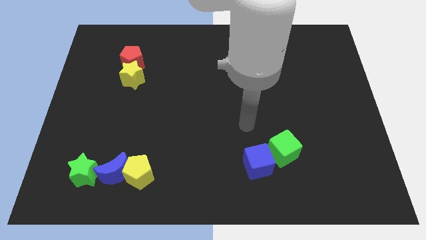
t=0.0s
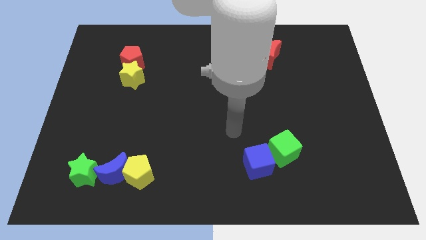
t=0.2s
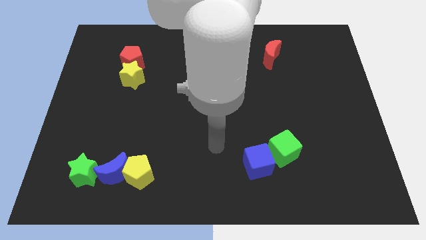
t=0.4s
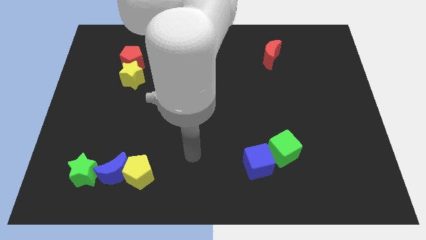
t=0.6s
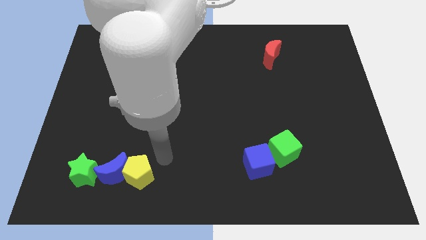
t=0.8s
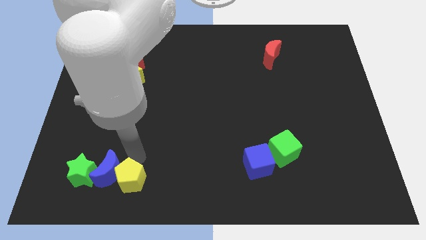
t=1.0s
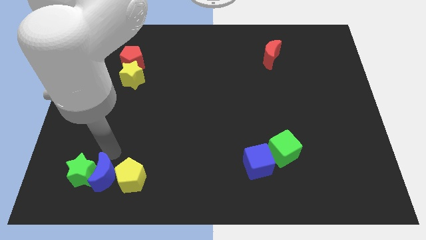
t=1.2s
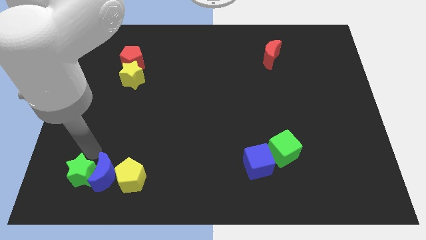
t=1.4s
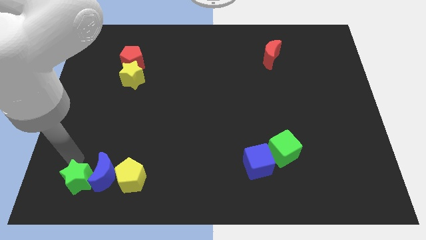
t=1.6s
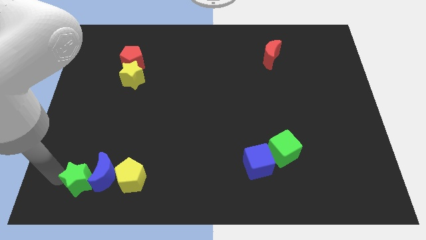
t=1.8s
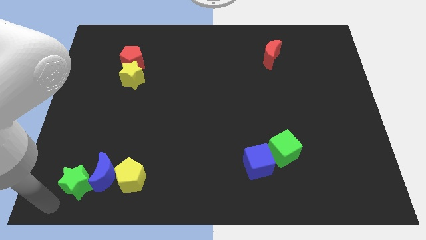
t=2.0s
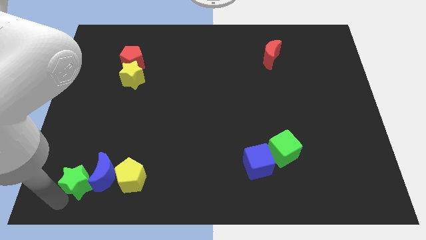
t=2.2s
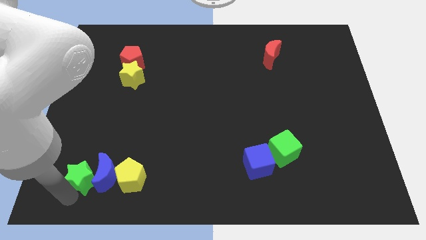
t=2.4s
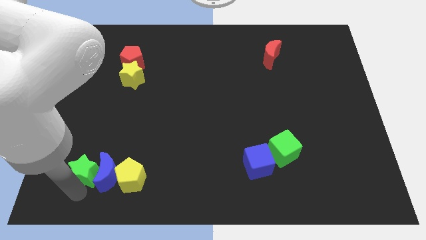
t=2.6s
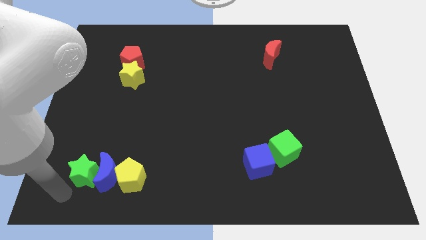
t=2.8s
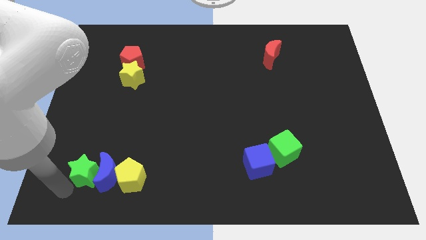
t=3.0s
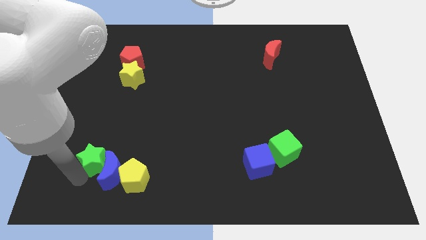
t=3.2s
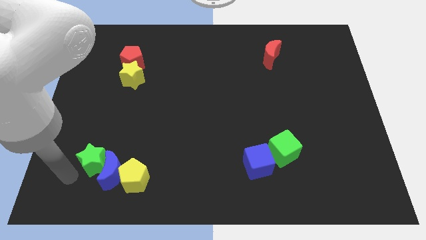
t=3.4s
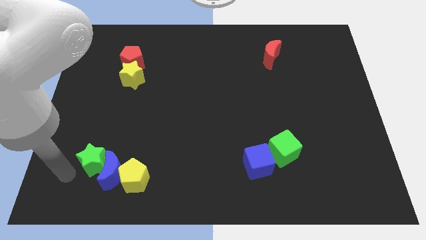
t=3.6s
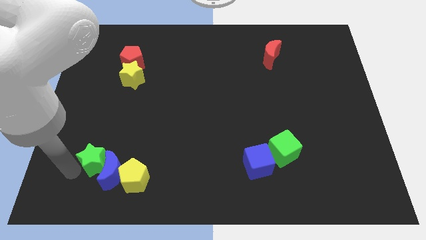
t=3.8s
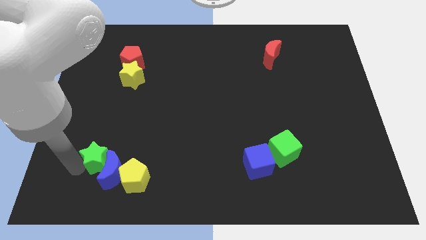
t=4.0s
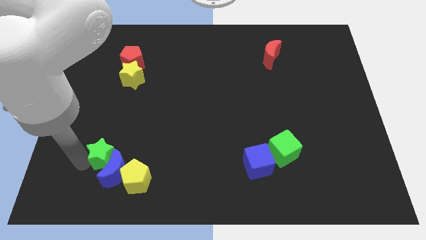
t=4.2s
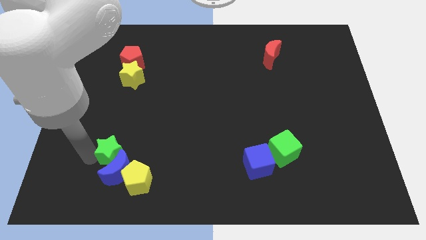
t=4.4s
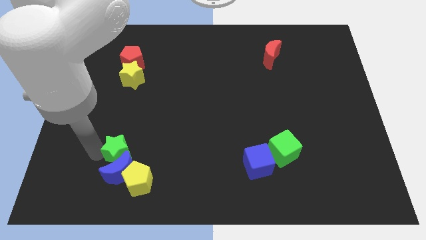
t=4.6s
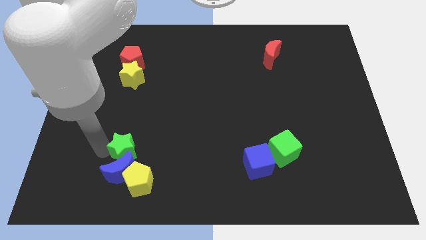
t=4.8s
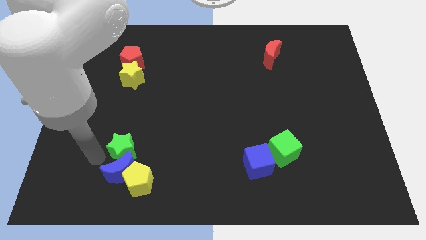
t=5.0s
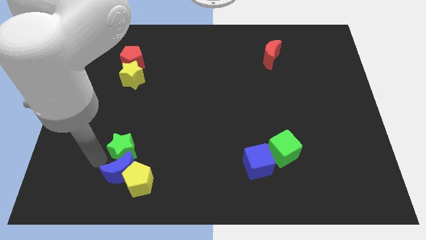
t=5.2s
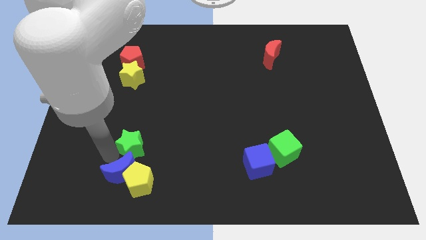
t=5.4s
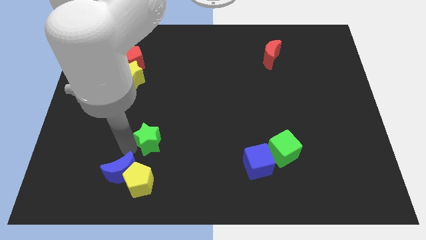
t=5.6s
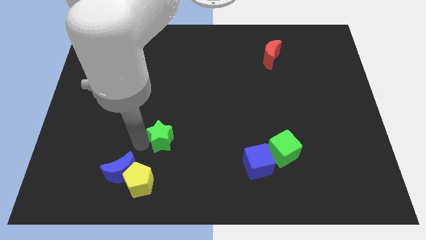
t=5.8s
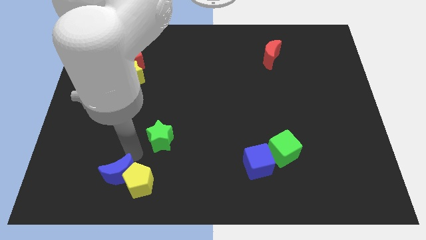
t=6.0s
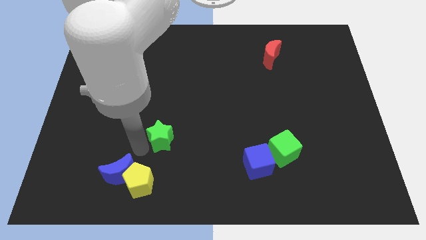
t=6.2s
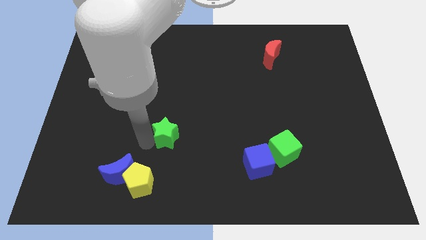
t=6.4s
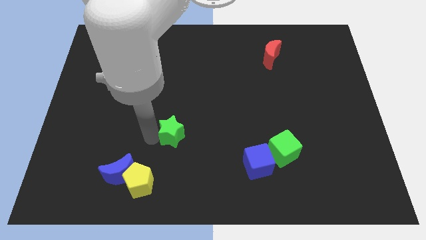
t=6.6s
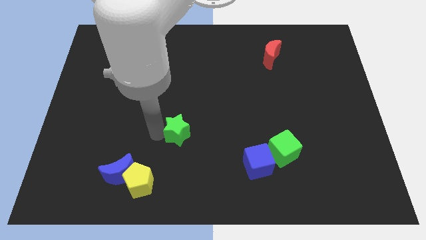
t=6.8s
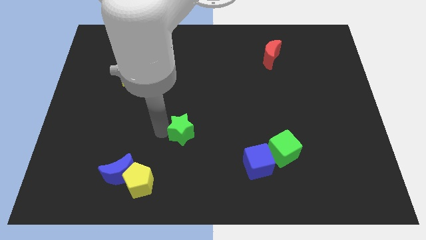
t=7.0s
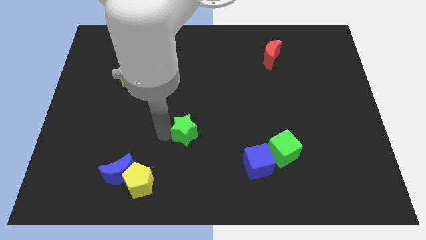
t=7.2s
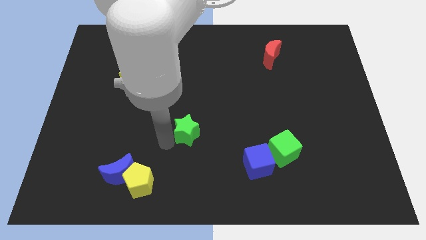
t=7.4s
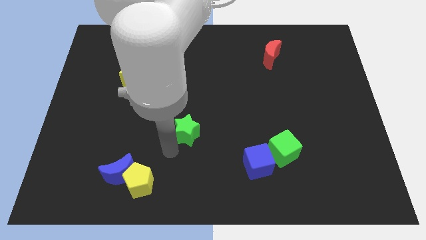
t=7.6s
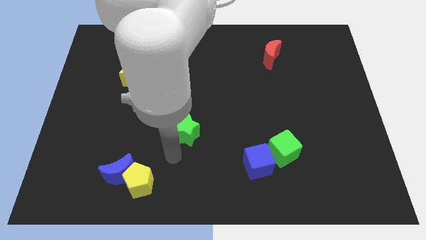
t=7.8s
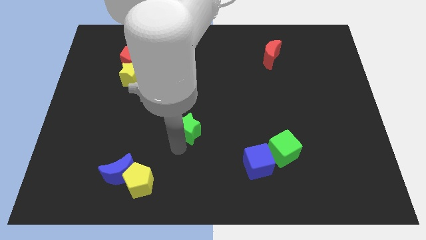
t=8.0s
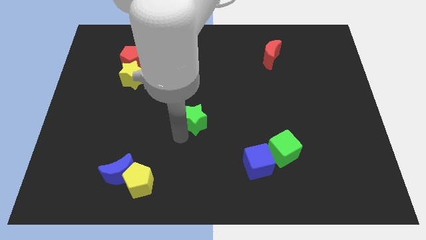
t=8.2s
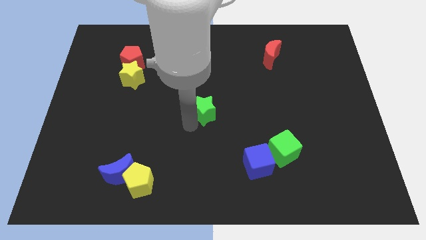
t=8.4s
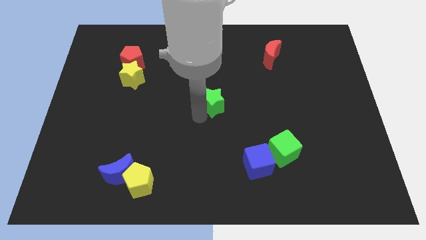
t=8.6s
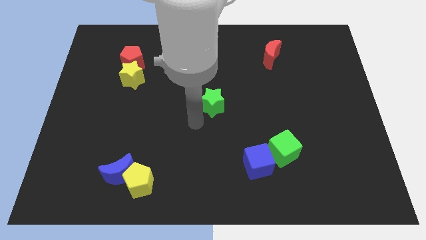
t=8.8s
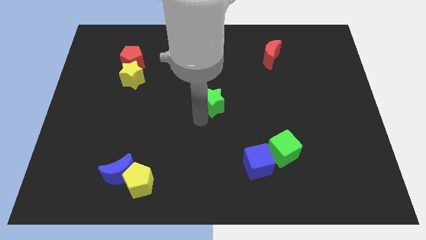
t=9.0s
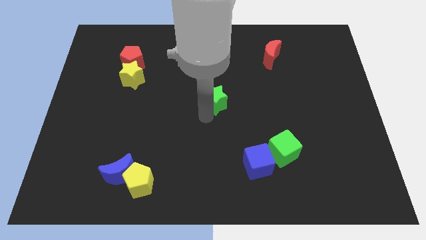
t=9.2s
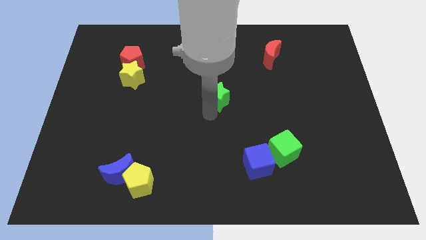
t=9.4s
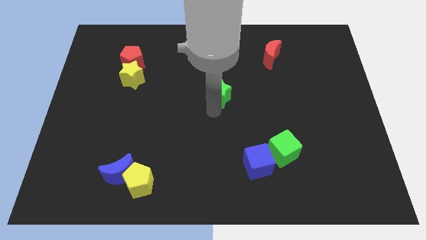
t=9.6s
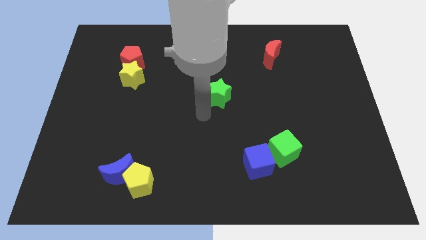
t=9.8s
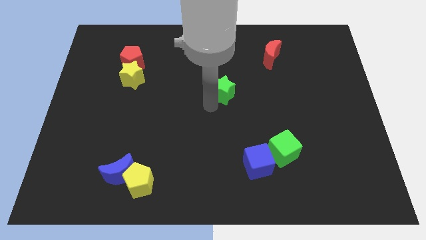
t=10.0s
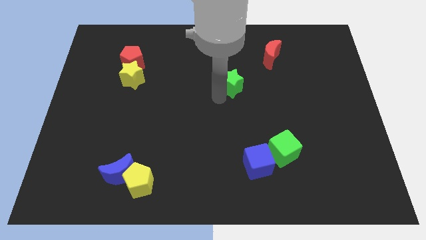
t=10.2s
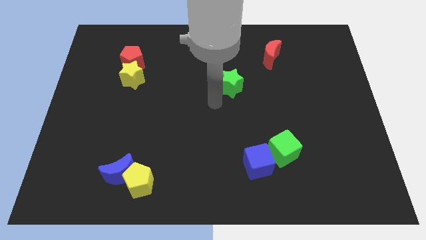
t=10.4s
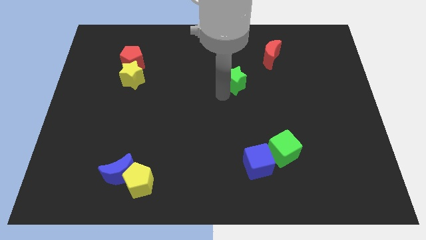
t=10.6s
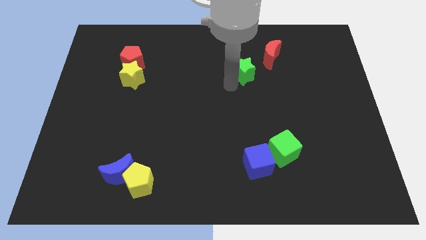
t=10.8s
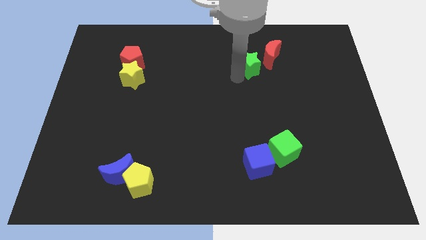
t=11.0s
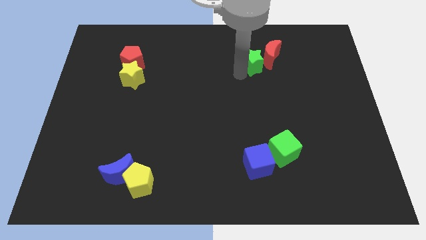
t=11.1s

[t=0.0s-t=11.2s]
push the green star towards the red moon

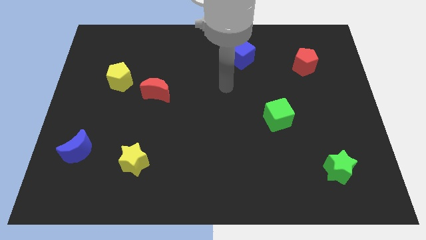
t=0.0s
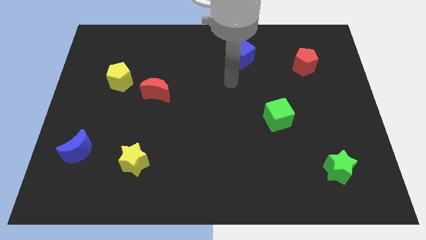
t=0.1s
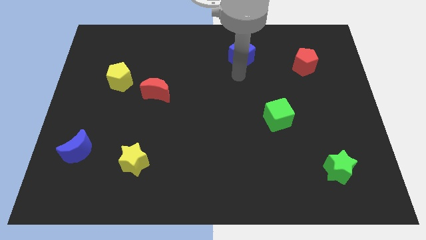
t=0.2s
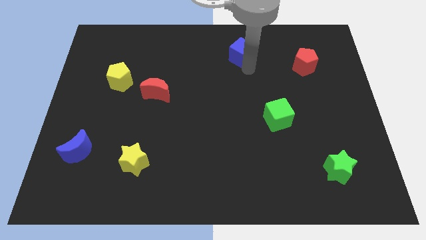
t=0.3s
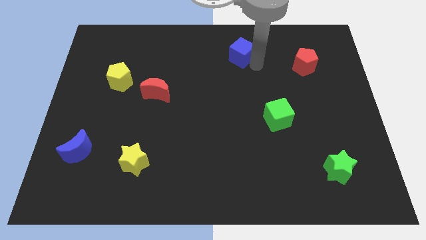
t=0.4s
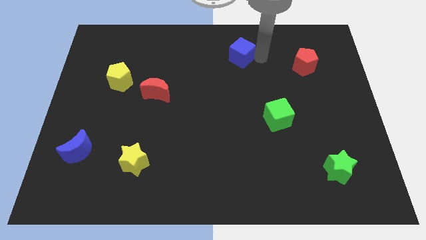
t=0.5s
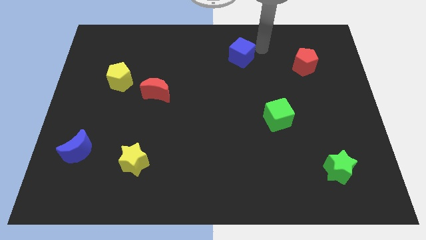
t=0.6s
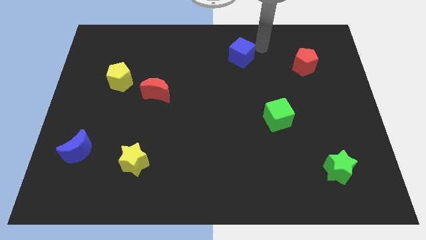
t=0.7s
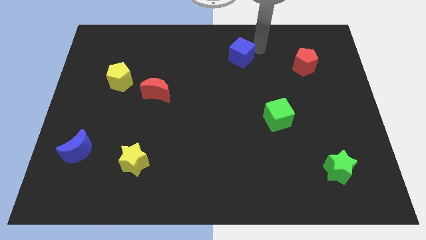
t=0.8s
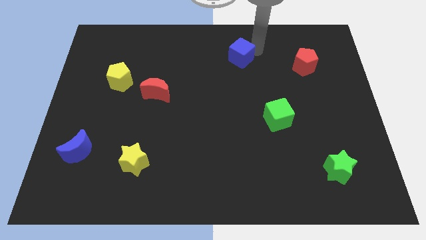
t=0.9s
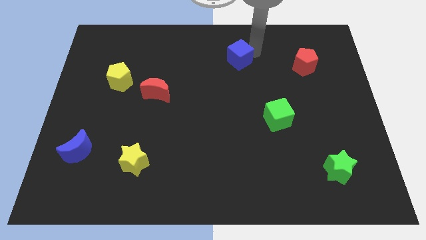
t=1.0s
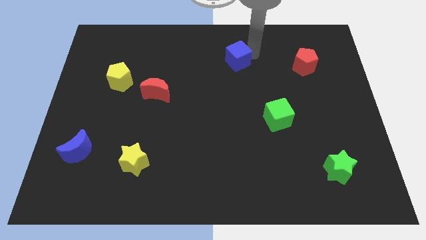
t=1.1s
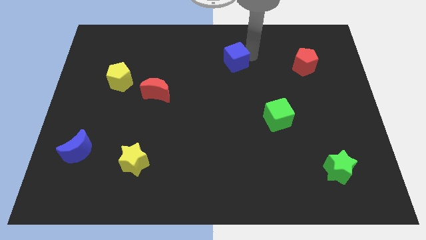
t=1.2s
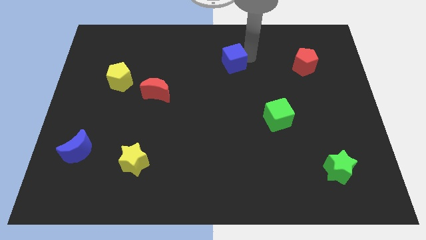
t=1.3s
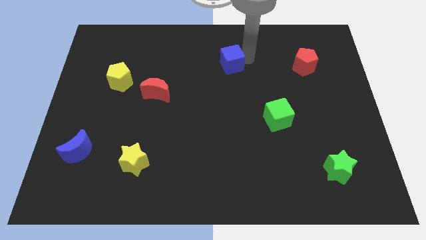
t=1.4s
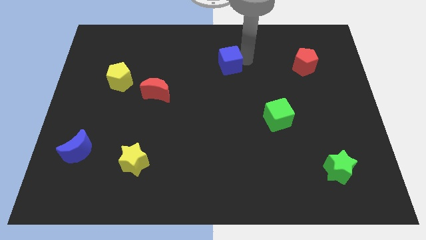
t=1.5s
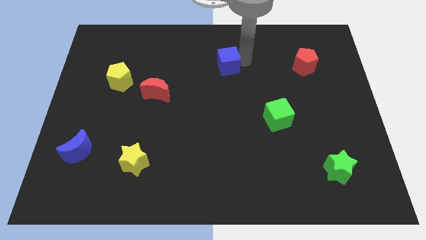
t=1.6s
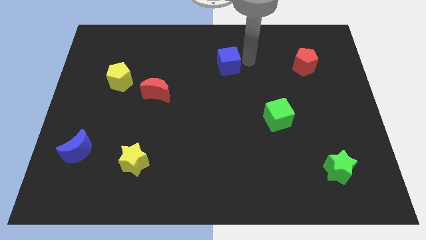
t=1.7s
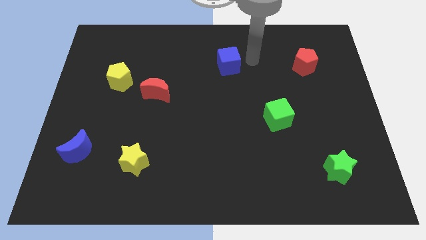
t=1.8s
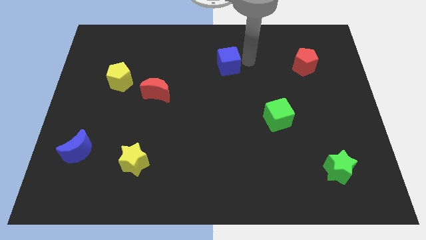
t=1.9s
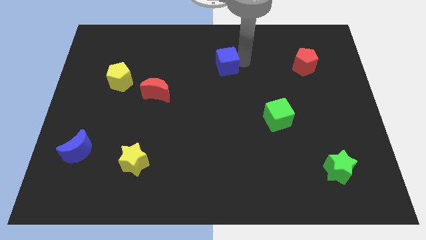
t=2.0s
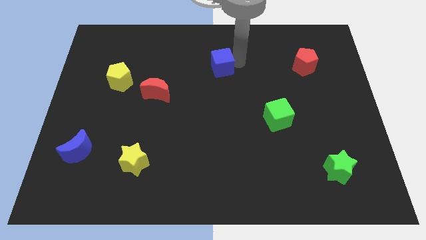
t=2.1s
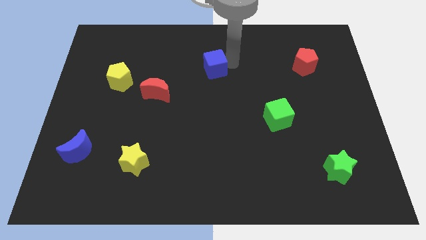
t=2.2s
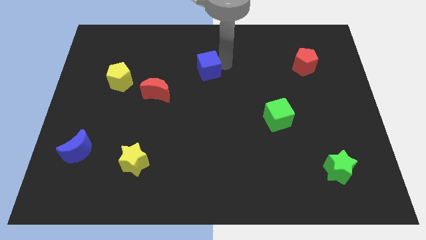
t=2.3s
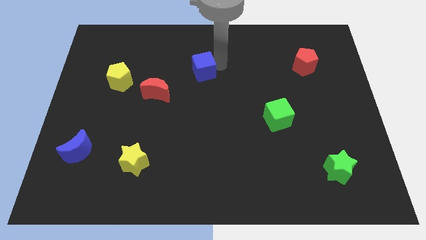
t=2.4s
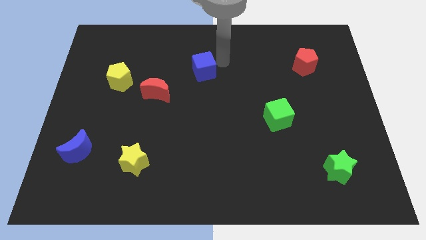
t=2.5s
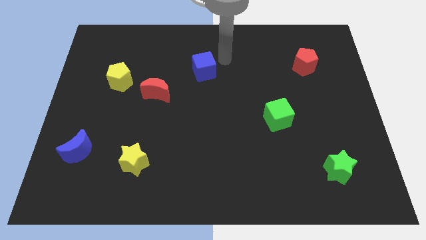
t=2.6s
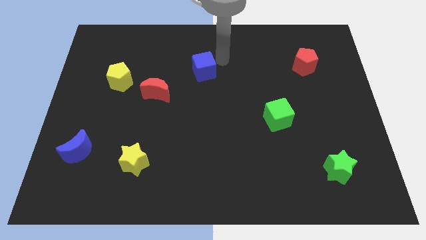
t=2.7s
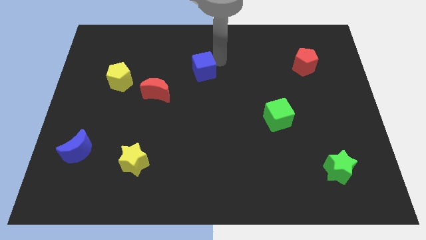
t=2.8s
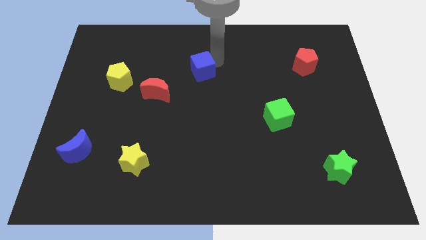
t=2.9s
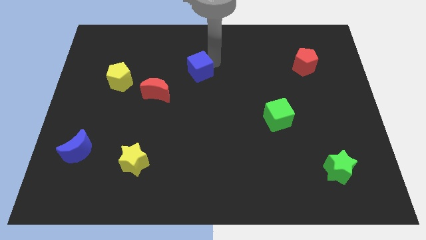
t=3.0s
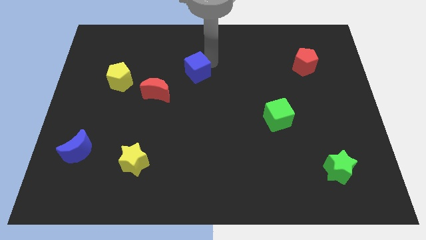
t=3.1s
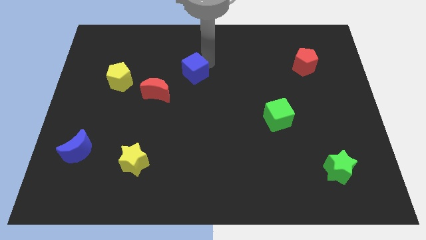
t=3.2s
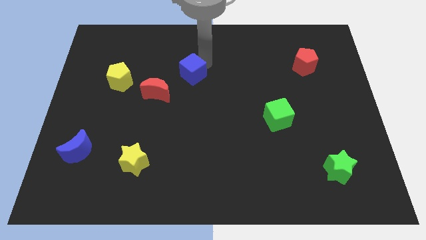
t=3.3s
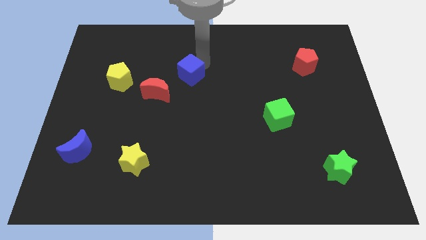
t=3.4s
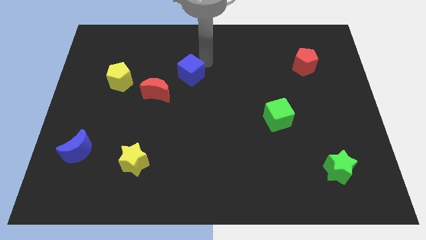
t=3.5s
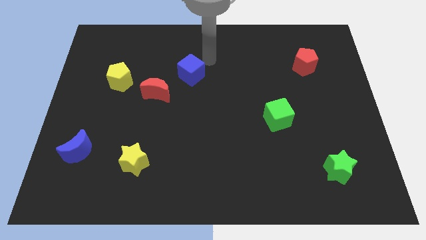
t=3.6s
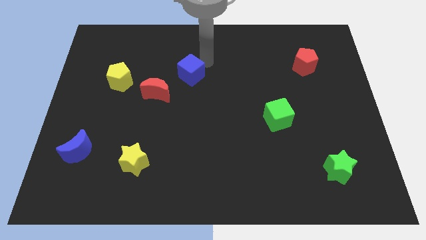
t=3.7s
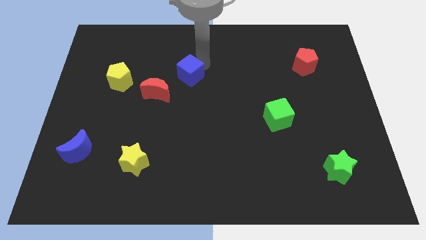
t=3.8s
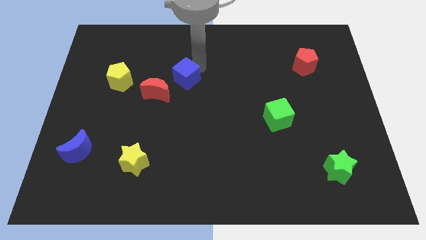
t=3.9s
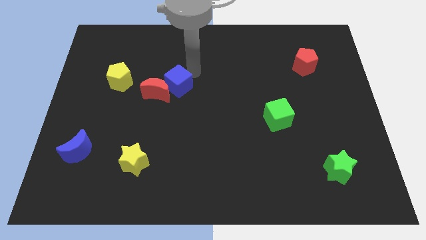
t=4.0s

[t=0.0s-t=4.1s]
put the blue cube close to the red moon
